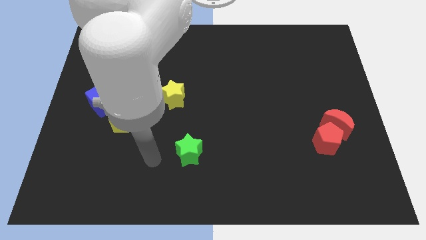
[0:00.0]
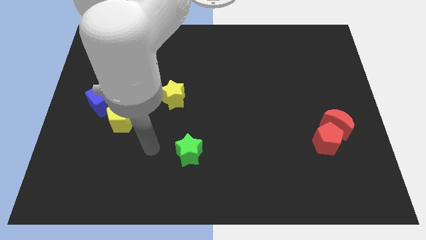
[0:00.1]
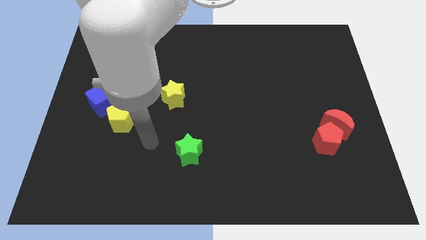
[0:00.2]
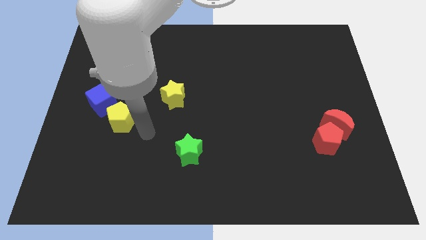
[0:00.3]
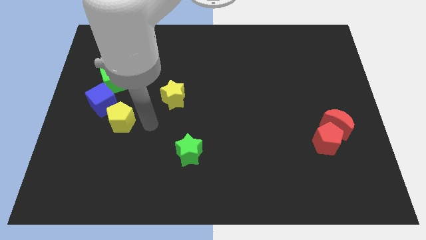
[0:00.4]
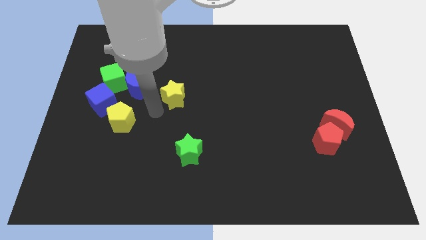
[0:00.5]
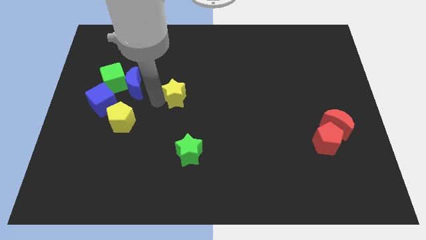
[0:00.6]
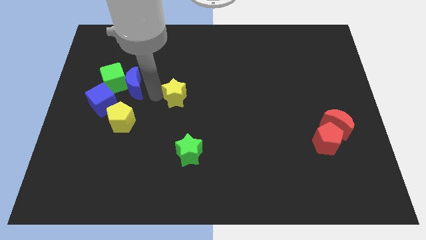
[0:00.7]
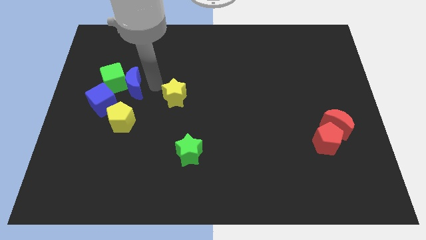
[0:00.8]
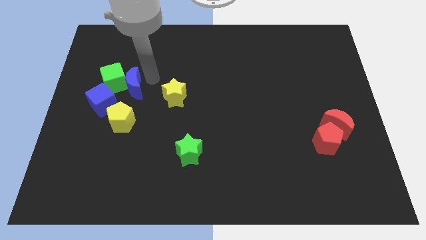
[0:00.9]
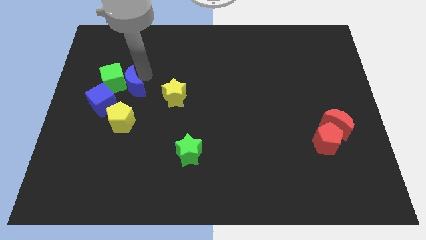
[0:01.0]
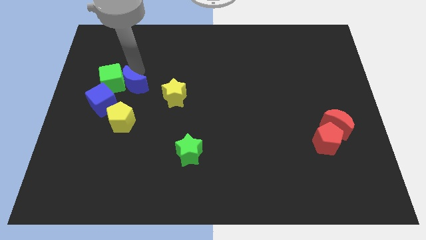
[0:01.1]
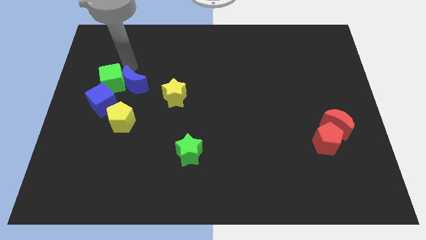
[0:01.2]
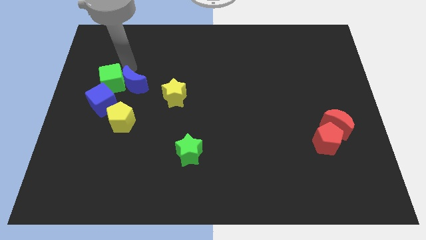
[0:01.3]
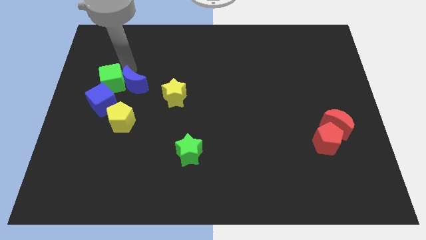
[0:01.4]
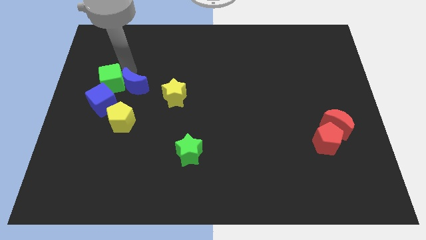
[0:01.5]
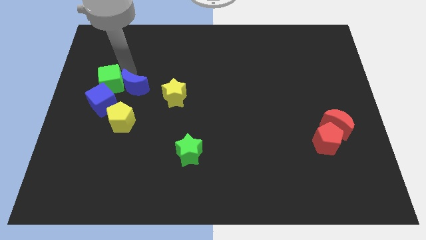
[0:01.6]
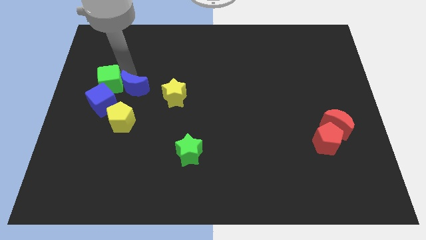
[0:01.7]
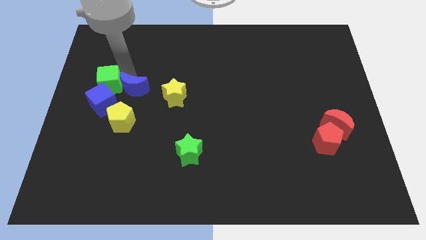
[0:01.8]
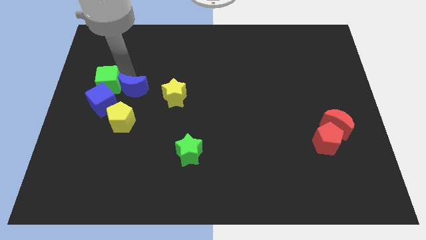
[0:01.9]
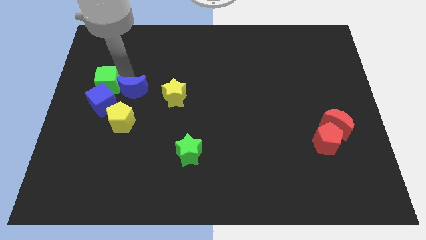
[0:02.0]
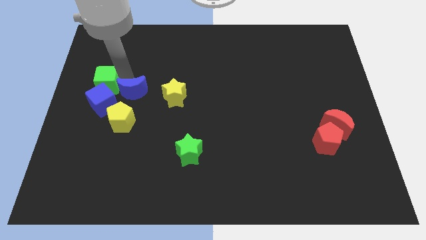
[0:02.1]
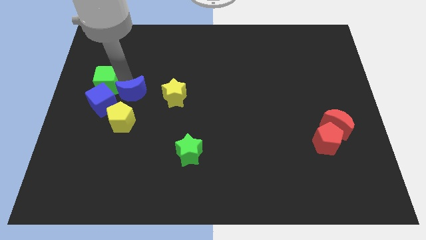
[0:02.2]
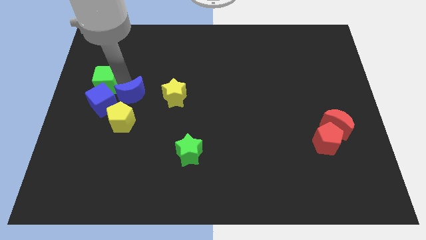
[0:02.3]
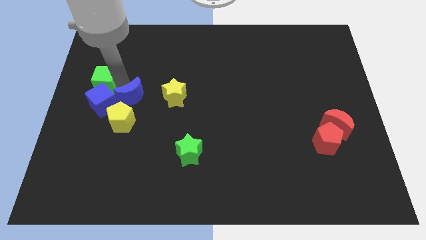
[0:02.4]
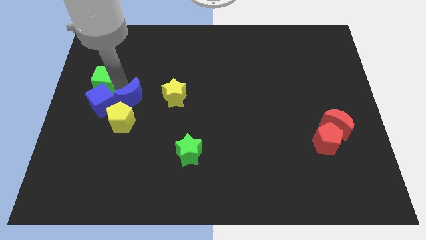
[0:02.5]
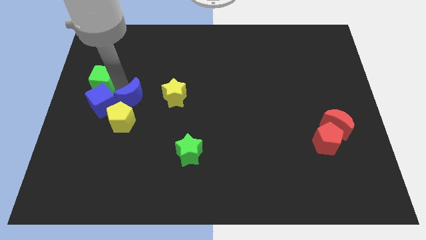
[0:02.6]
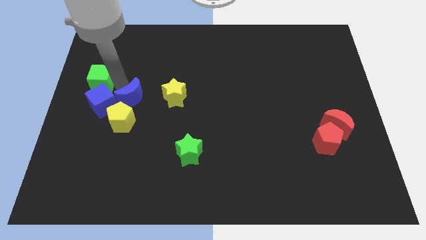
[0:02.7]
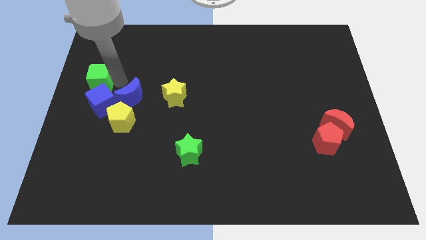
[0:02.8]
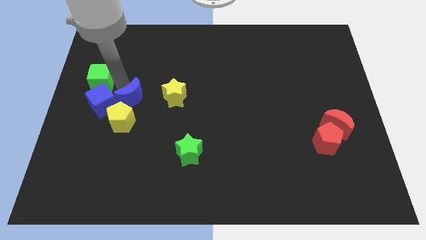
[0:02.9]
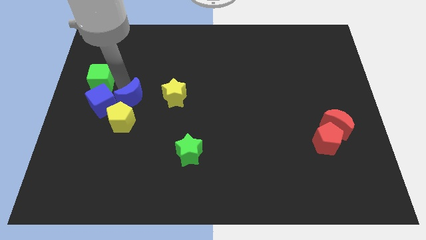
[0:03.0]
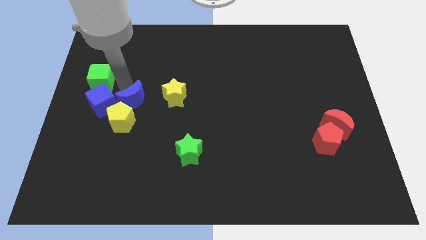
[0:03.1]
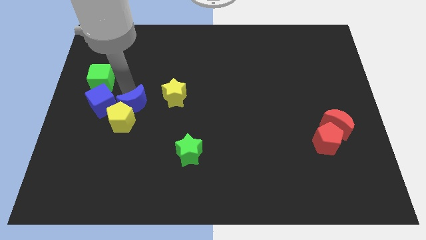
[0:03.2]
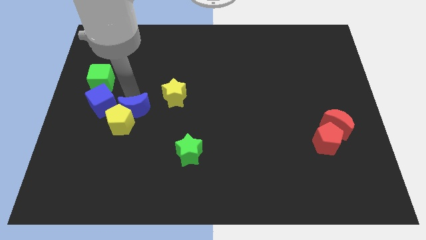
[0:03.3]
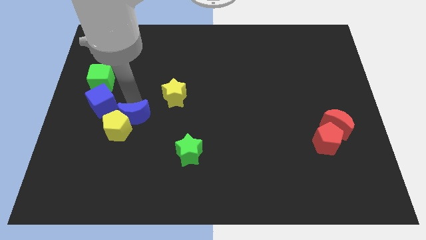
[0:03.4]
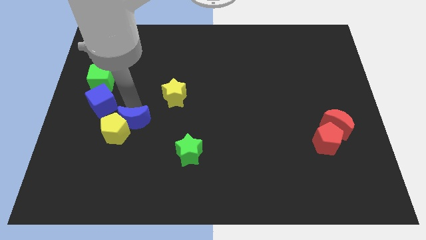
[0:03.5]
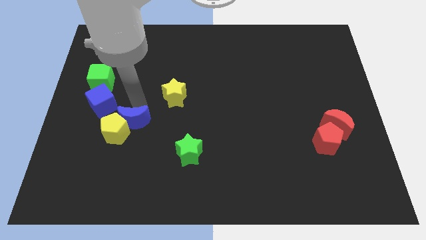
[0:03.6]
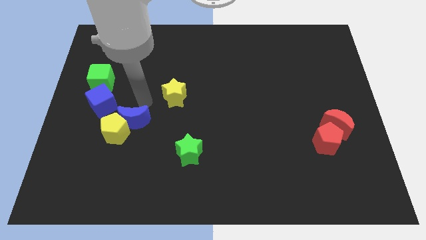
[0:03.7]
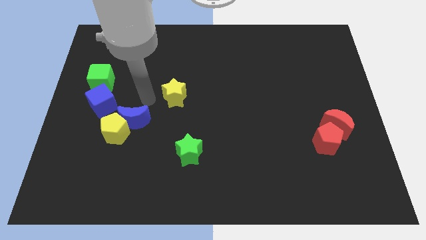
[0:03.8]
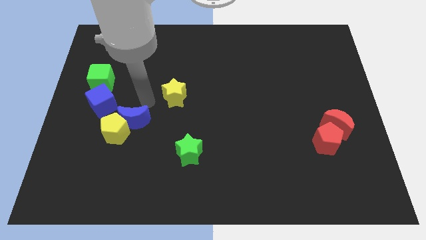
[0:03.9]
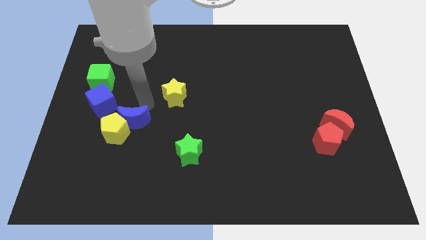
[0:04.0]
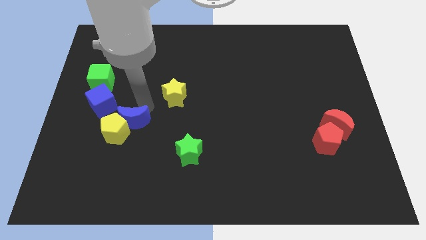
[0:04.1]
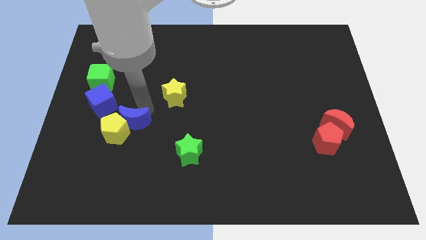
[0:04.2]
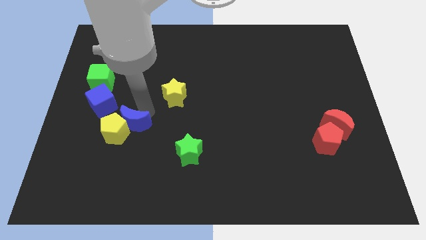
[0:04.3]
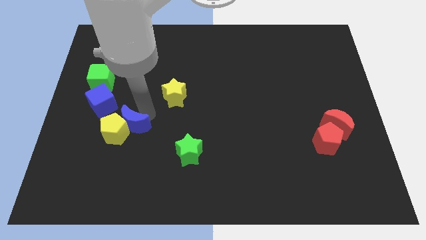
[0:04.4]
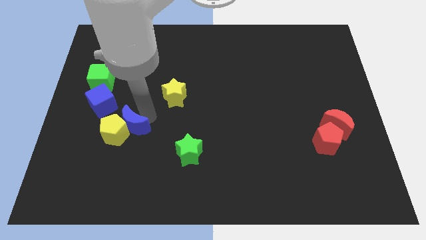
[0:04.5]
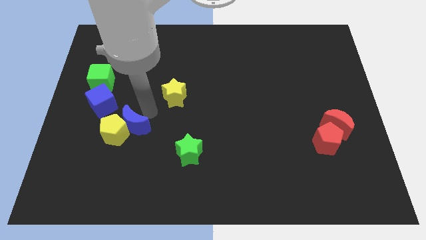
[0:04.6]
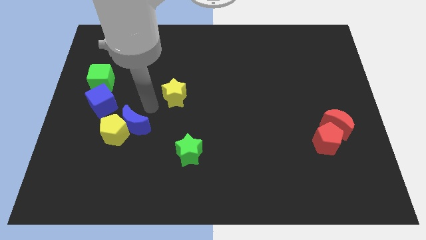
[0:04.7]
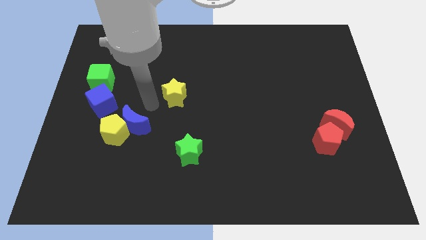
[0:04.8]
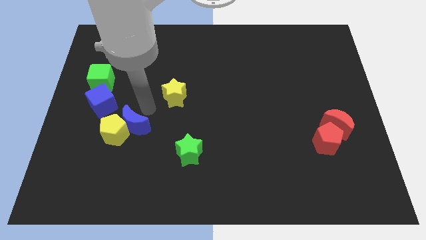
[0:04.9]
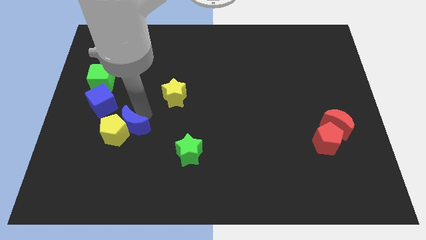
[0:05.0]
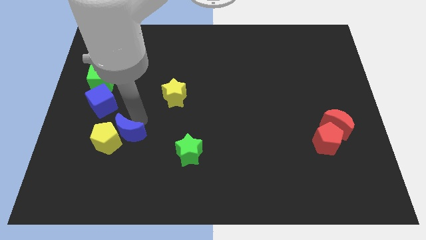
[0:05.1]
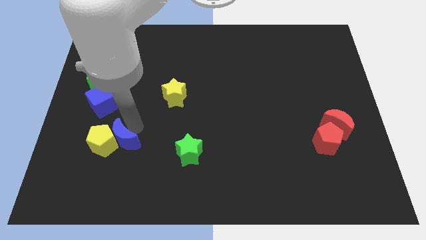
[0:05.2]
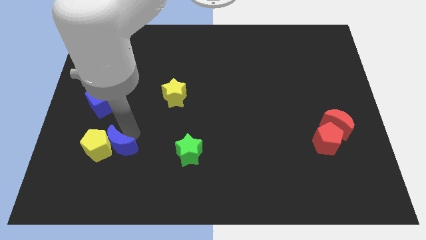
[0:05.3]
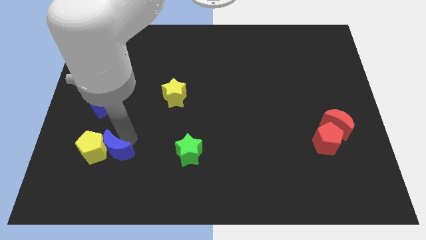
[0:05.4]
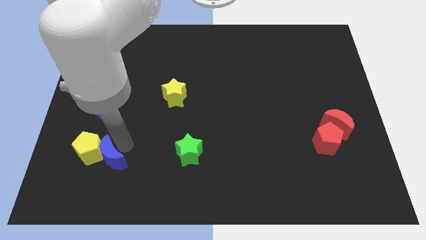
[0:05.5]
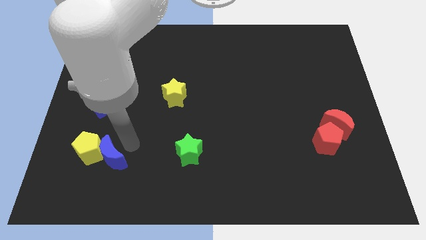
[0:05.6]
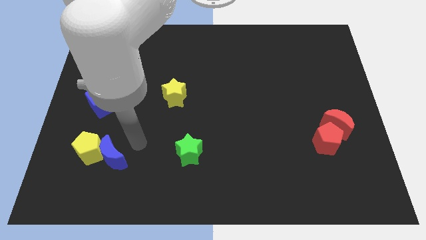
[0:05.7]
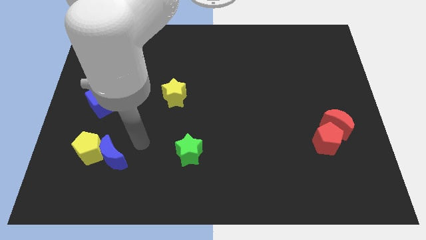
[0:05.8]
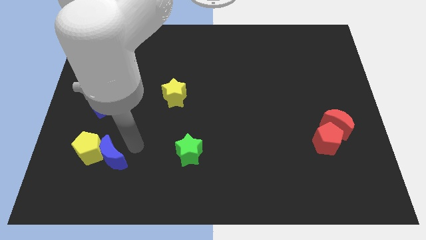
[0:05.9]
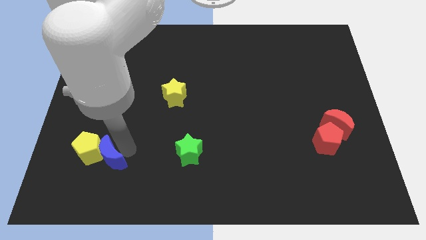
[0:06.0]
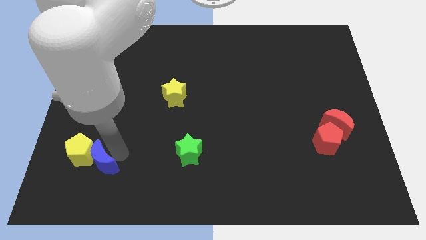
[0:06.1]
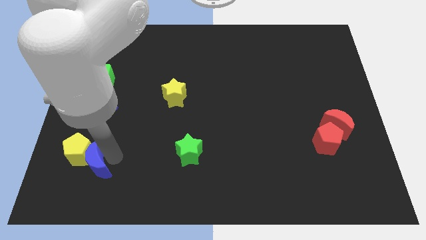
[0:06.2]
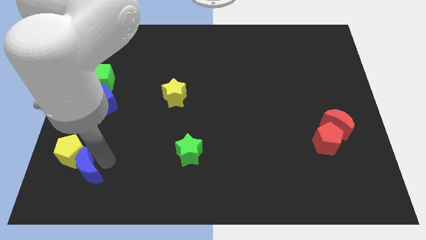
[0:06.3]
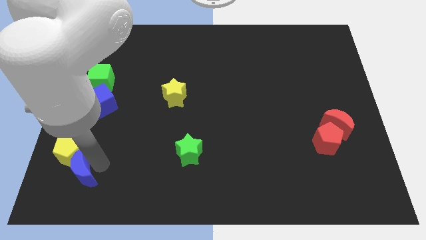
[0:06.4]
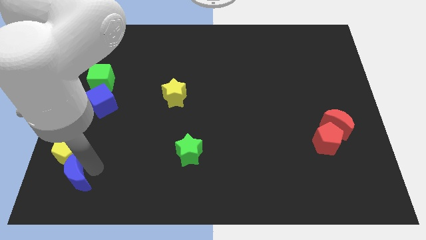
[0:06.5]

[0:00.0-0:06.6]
move the blue moon to the bottom left
